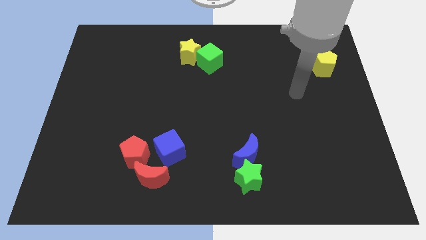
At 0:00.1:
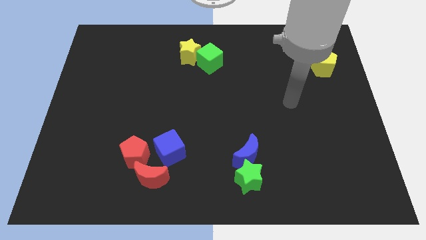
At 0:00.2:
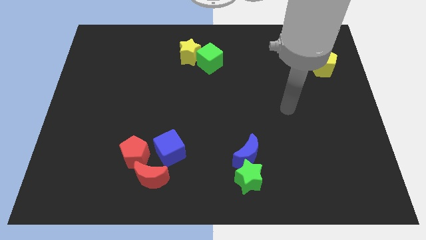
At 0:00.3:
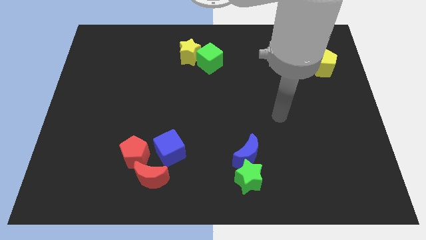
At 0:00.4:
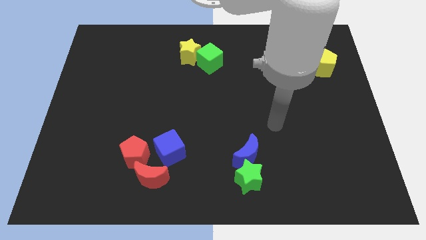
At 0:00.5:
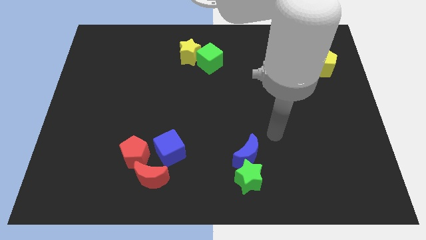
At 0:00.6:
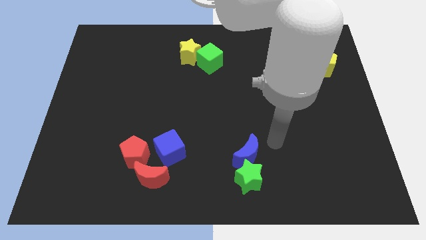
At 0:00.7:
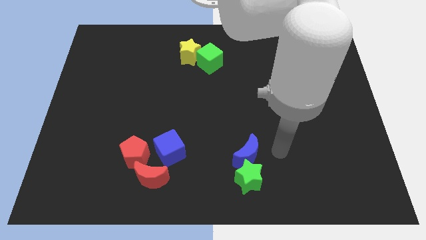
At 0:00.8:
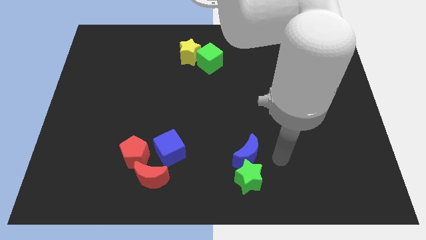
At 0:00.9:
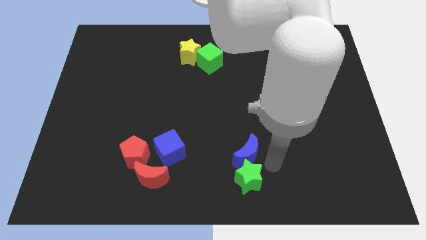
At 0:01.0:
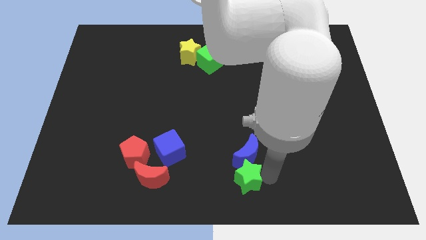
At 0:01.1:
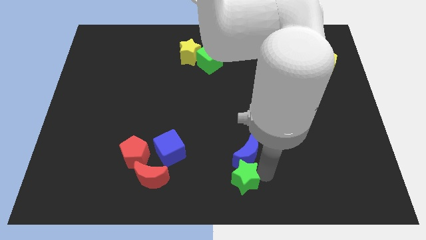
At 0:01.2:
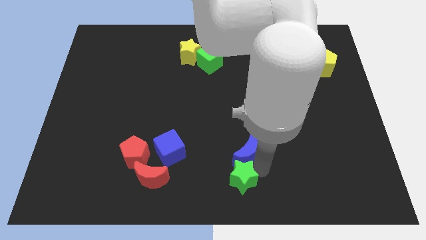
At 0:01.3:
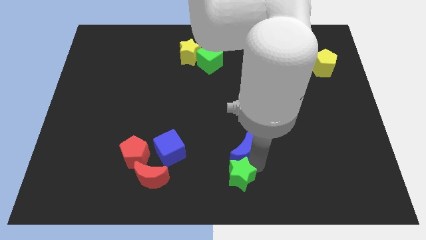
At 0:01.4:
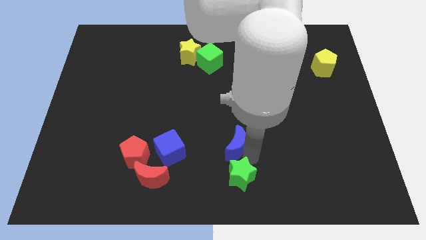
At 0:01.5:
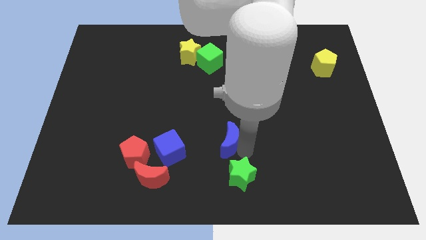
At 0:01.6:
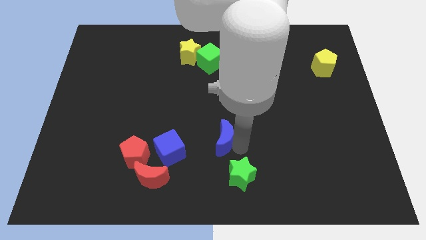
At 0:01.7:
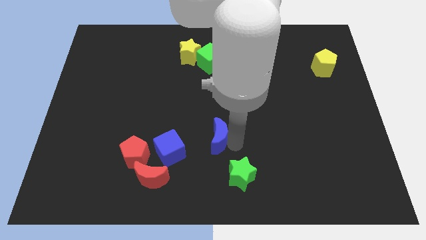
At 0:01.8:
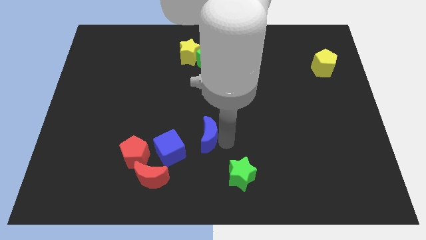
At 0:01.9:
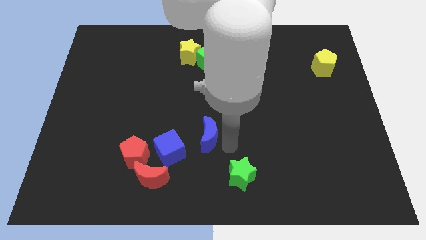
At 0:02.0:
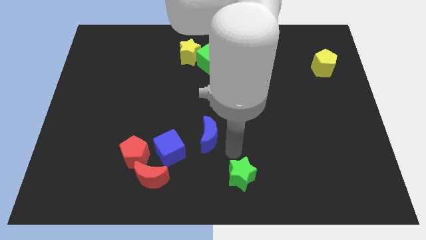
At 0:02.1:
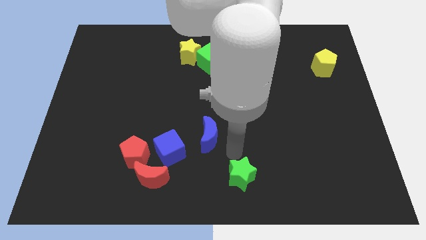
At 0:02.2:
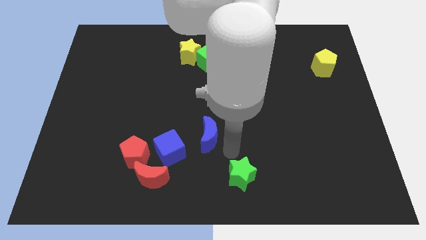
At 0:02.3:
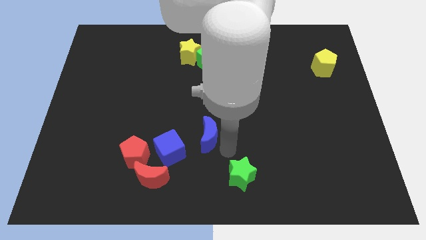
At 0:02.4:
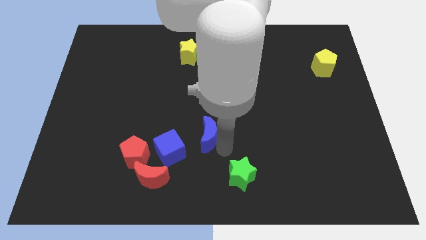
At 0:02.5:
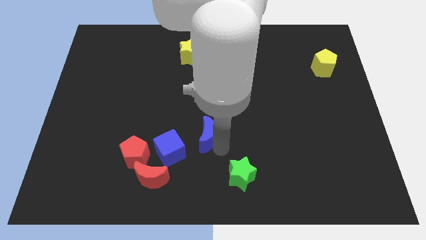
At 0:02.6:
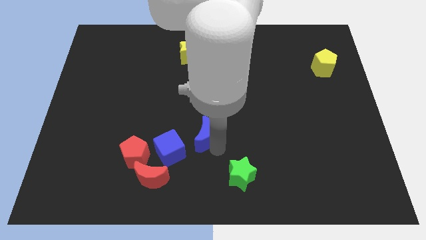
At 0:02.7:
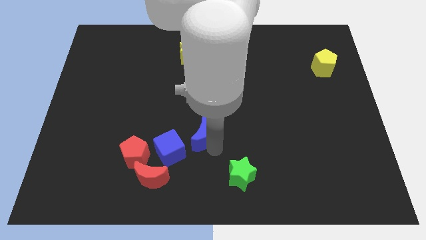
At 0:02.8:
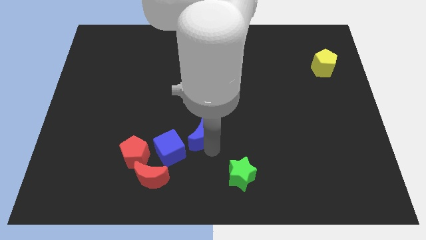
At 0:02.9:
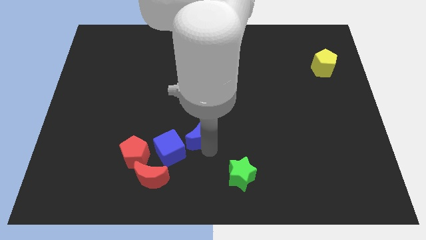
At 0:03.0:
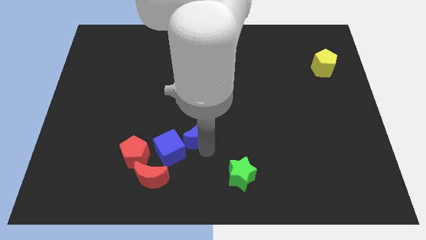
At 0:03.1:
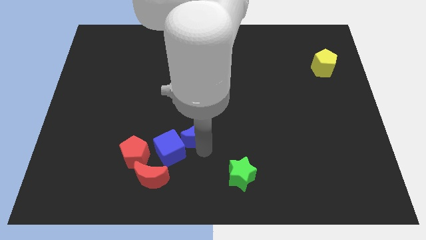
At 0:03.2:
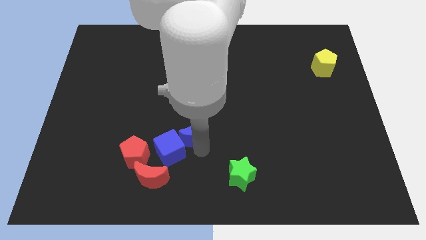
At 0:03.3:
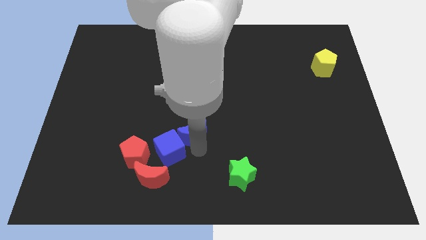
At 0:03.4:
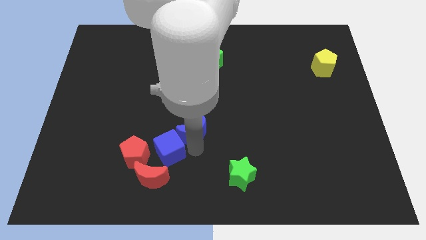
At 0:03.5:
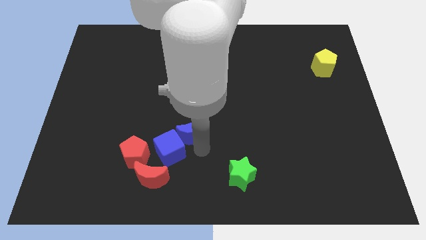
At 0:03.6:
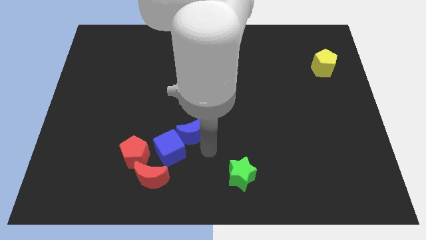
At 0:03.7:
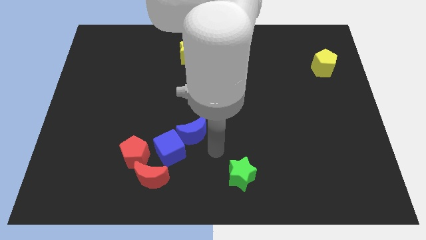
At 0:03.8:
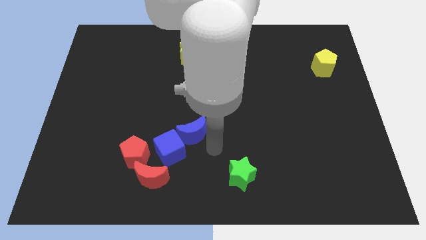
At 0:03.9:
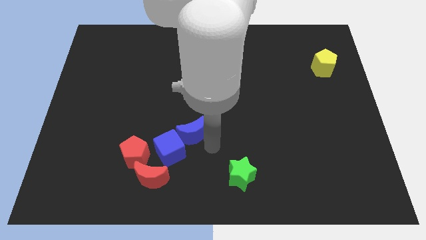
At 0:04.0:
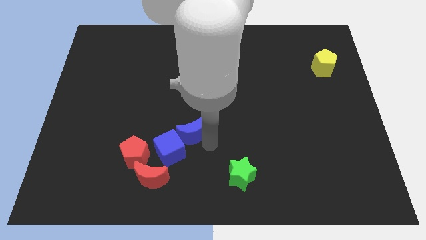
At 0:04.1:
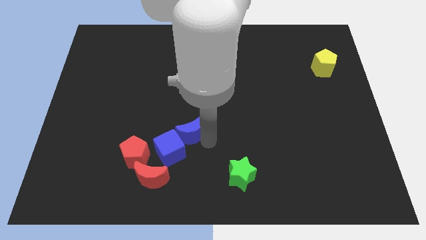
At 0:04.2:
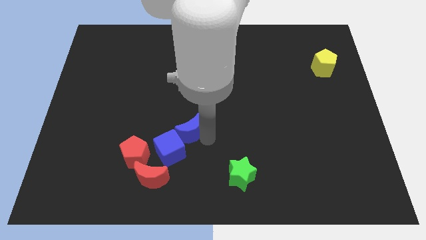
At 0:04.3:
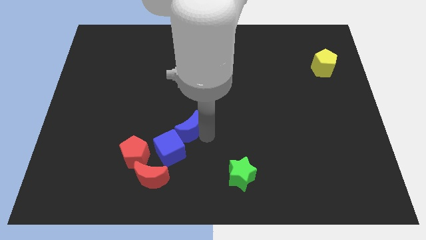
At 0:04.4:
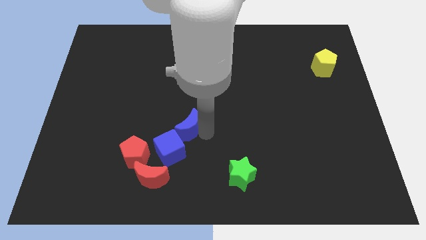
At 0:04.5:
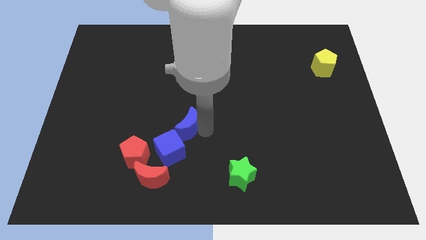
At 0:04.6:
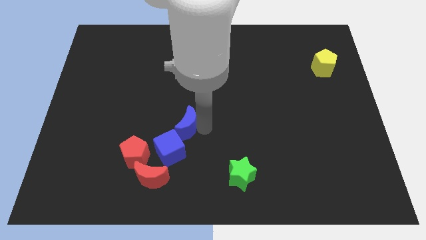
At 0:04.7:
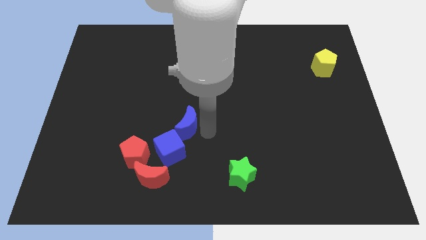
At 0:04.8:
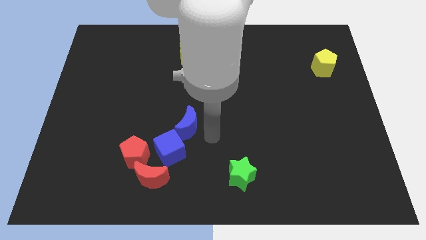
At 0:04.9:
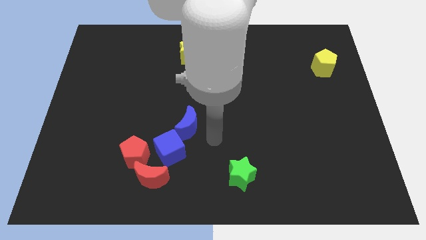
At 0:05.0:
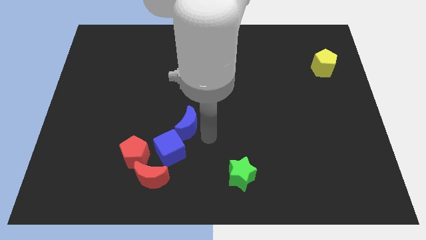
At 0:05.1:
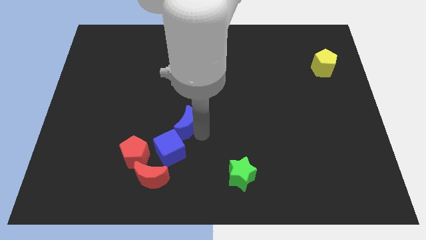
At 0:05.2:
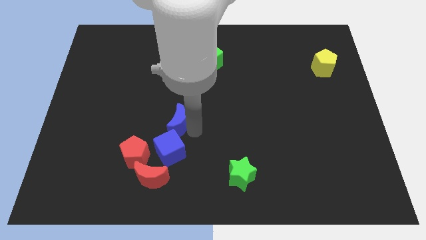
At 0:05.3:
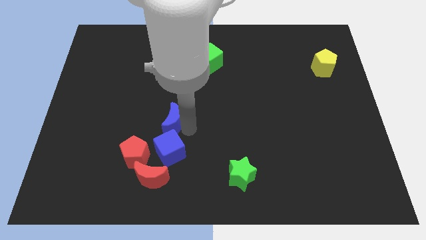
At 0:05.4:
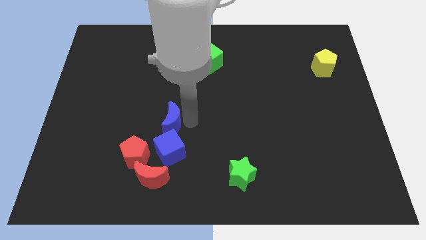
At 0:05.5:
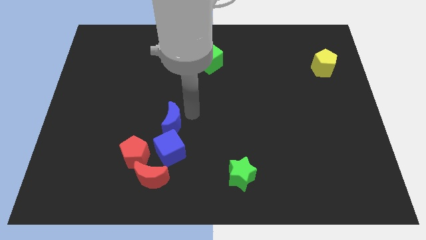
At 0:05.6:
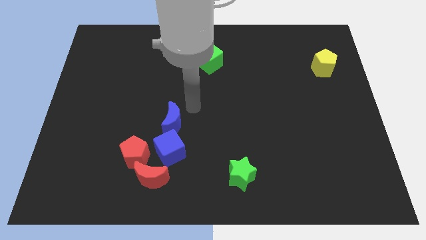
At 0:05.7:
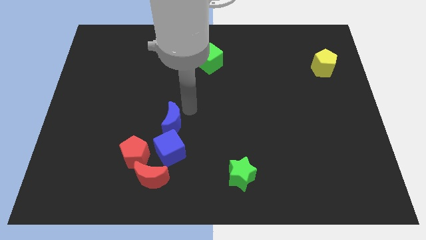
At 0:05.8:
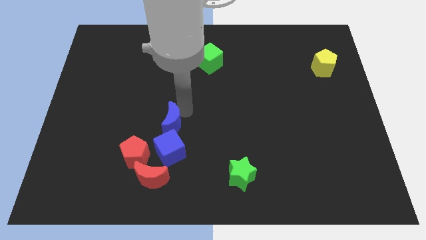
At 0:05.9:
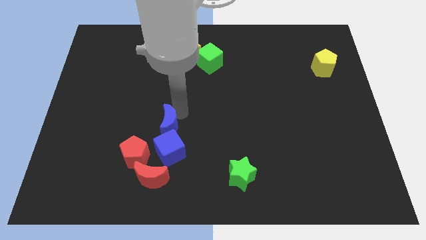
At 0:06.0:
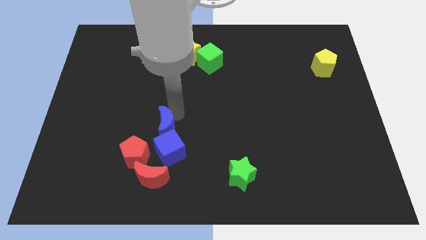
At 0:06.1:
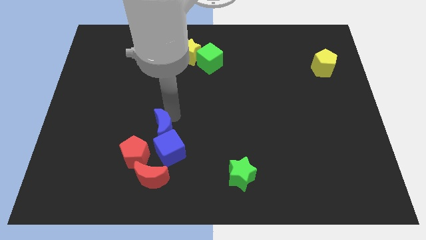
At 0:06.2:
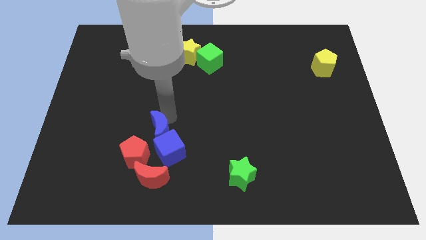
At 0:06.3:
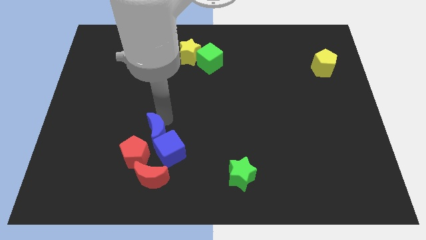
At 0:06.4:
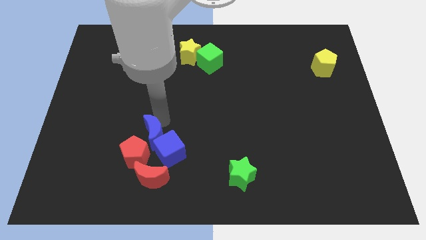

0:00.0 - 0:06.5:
move the blue moon to the red pentagon

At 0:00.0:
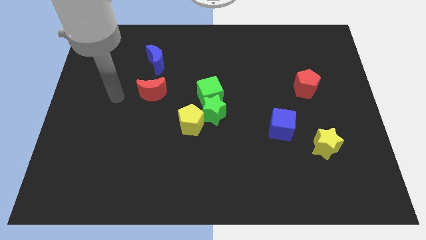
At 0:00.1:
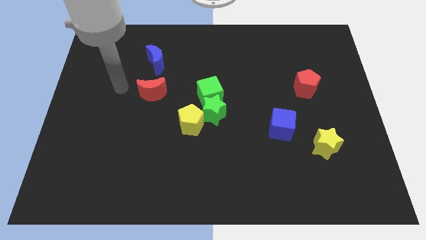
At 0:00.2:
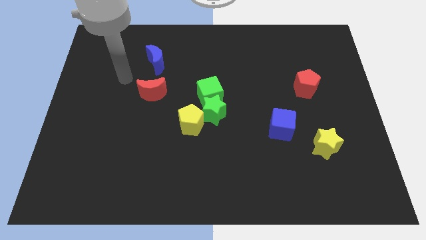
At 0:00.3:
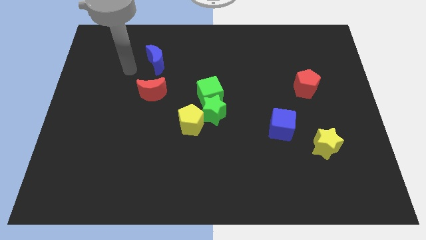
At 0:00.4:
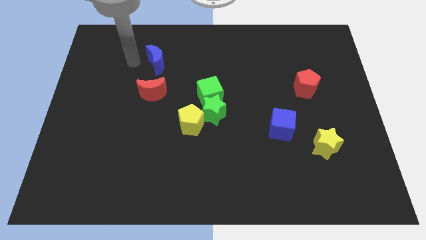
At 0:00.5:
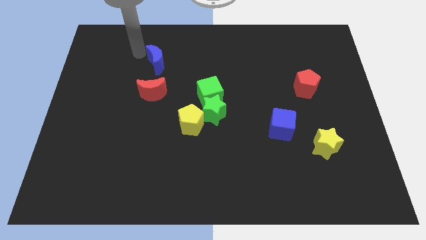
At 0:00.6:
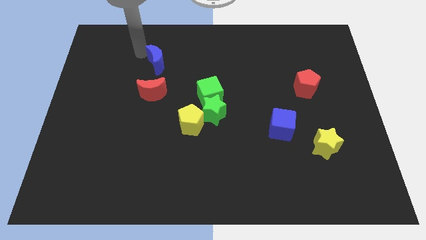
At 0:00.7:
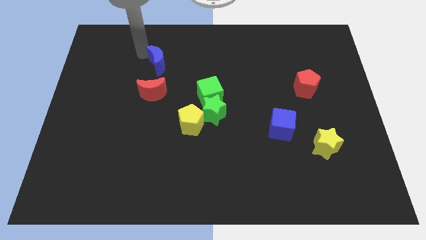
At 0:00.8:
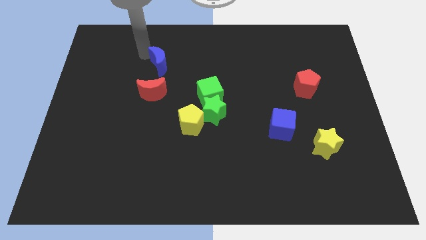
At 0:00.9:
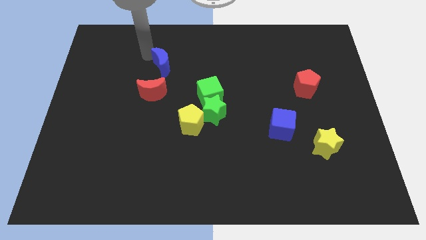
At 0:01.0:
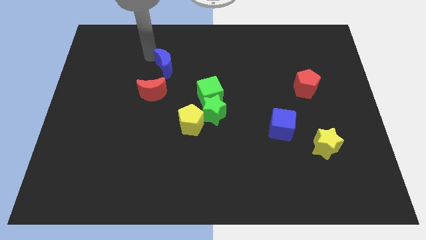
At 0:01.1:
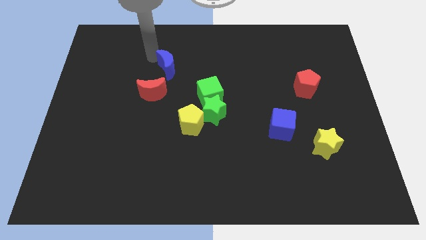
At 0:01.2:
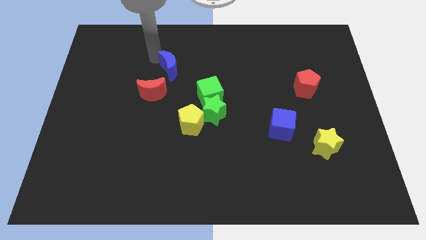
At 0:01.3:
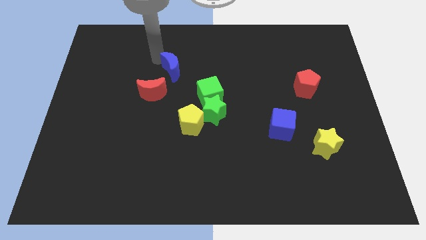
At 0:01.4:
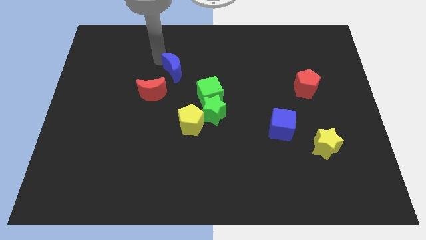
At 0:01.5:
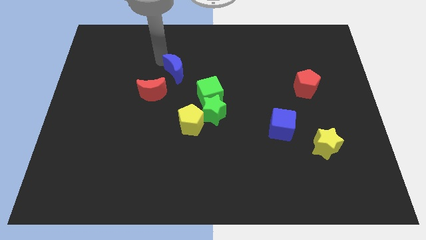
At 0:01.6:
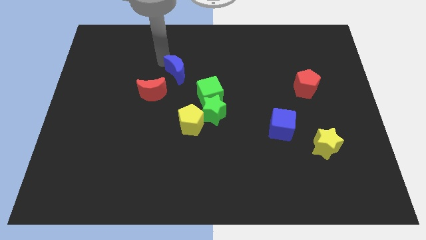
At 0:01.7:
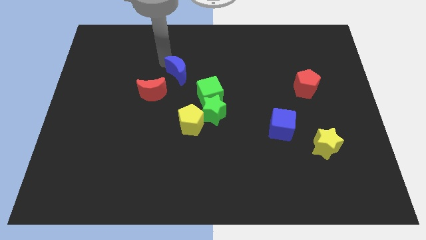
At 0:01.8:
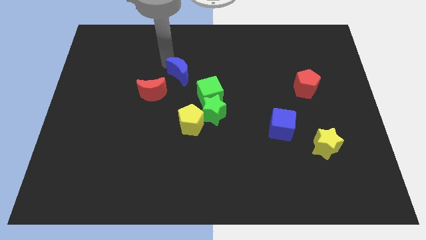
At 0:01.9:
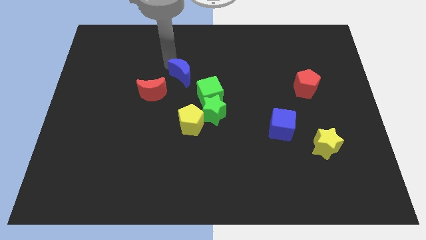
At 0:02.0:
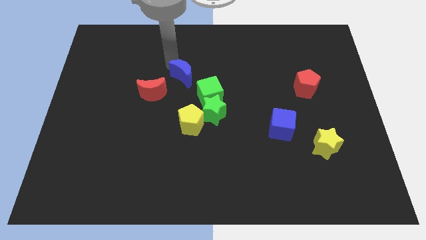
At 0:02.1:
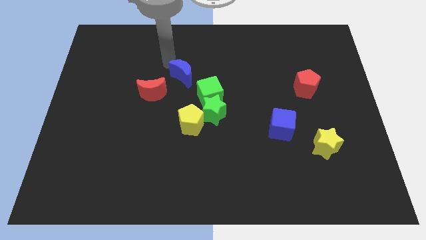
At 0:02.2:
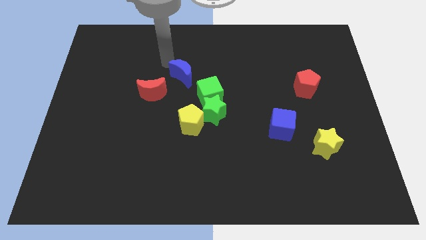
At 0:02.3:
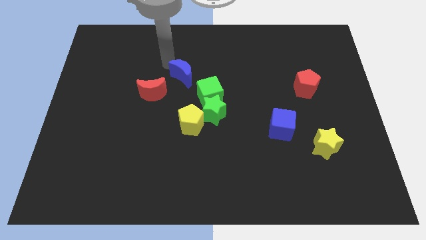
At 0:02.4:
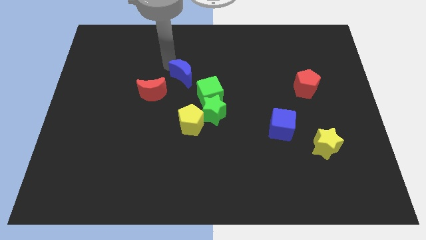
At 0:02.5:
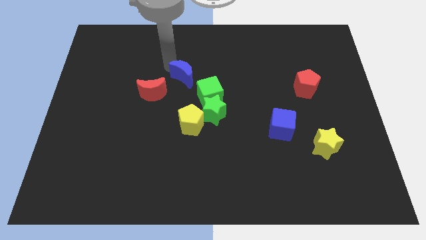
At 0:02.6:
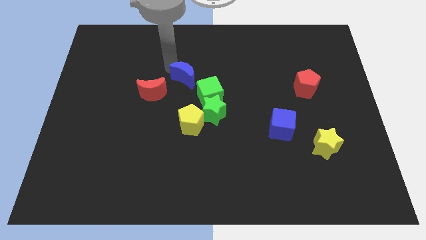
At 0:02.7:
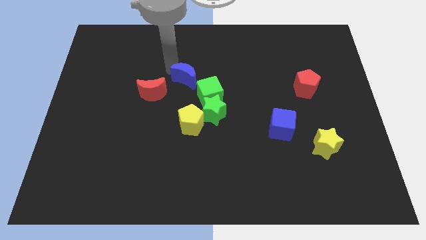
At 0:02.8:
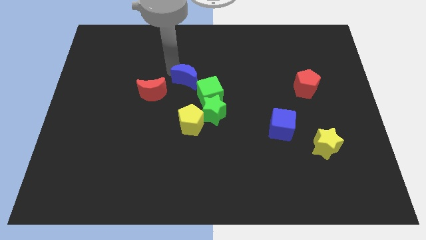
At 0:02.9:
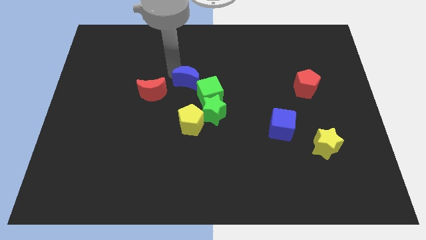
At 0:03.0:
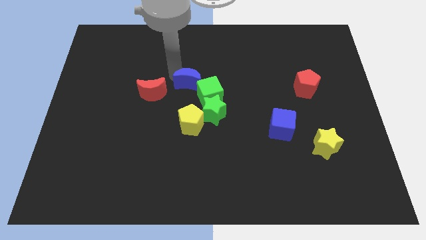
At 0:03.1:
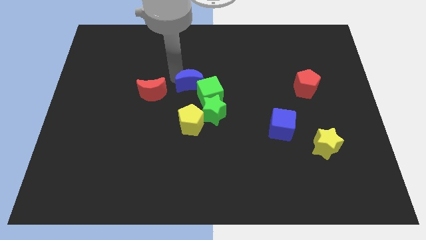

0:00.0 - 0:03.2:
move the blue moon towards the green cube
